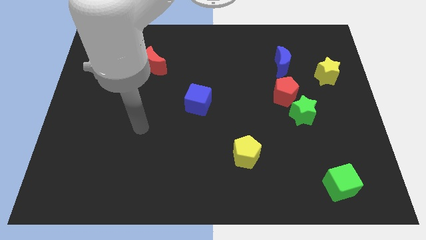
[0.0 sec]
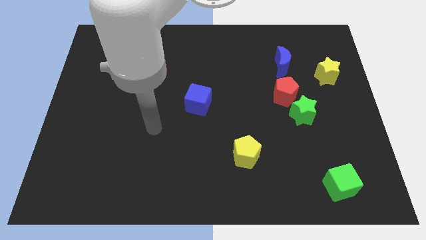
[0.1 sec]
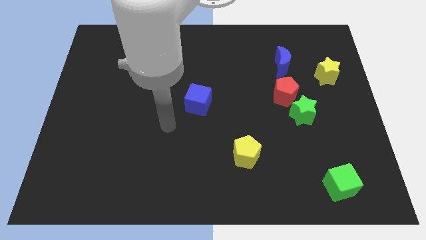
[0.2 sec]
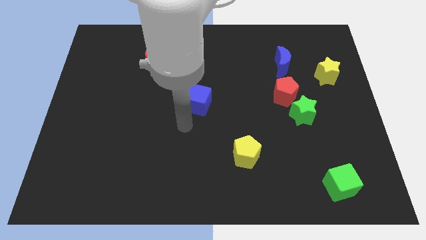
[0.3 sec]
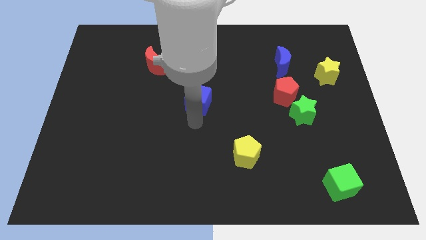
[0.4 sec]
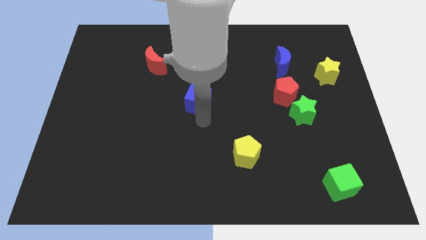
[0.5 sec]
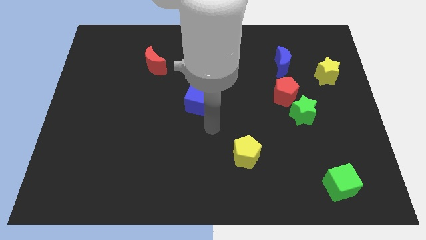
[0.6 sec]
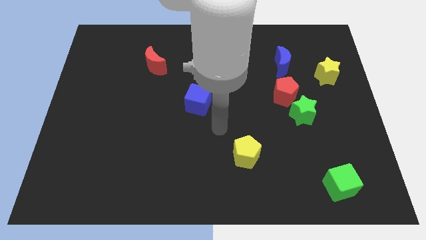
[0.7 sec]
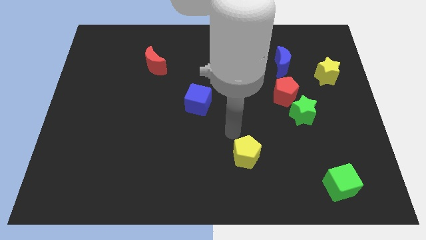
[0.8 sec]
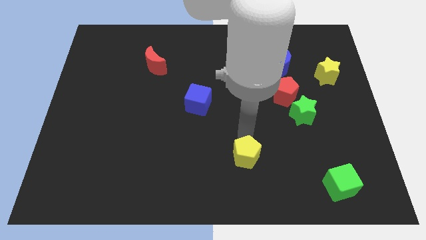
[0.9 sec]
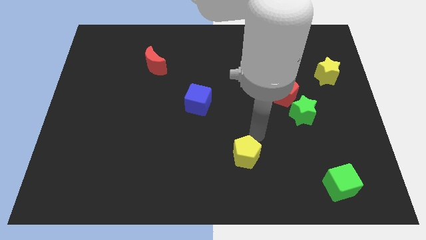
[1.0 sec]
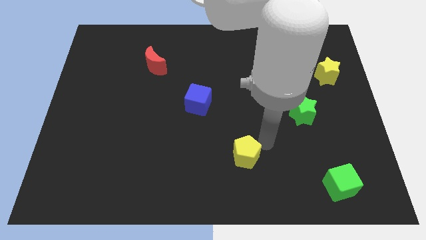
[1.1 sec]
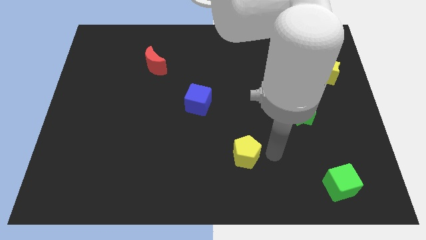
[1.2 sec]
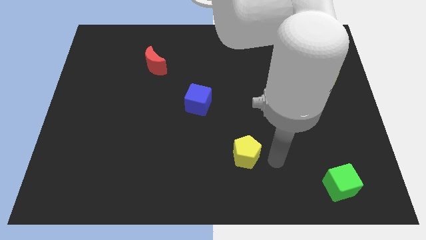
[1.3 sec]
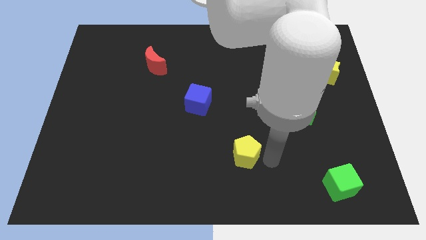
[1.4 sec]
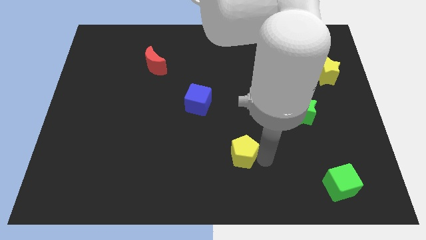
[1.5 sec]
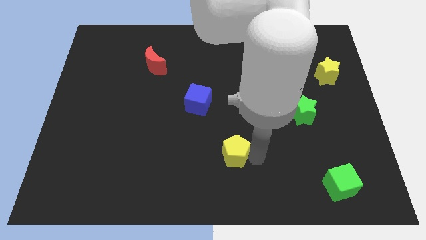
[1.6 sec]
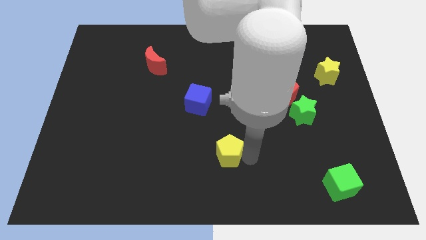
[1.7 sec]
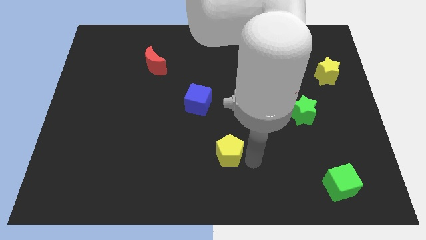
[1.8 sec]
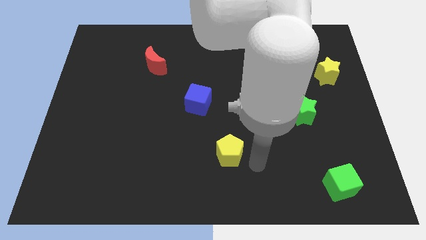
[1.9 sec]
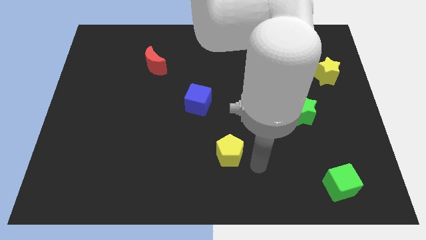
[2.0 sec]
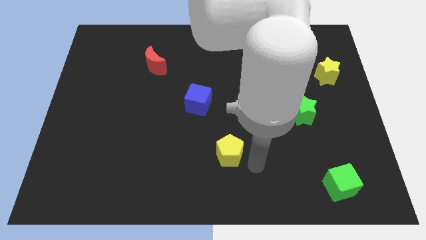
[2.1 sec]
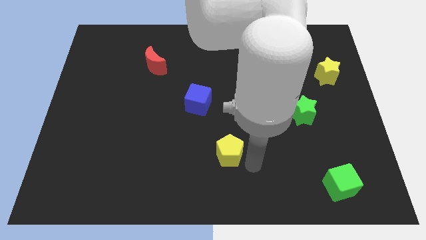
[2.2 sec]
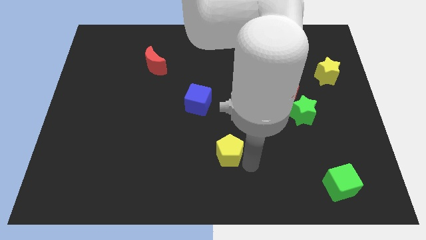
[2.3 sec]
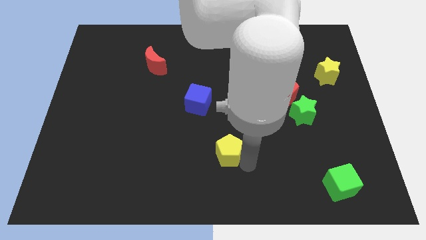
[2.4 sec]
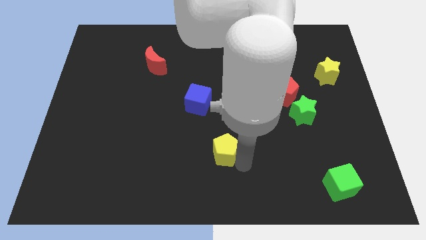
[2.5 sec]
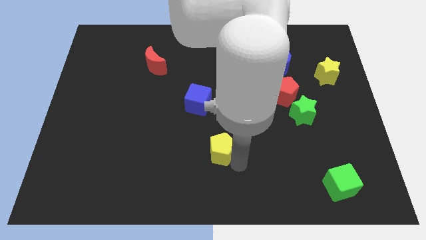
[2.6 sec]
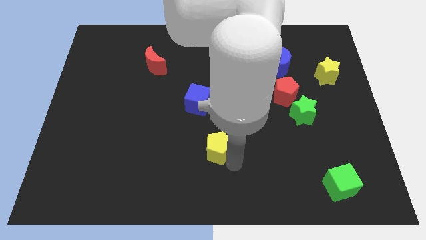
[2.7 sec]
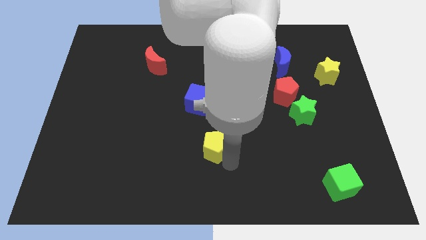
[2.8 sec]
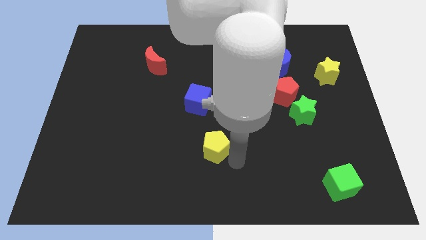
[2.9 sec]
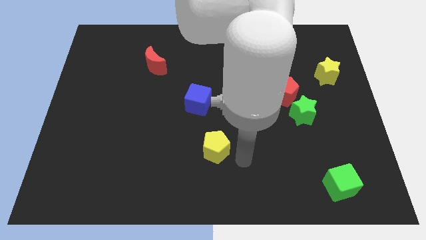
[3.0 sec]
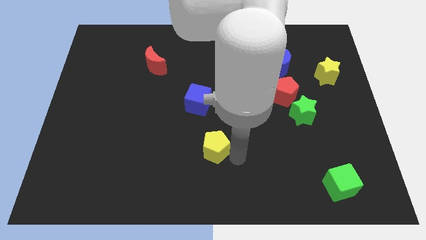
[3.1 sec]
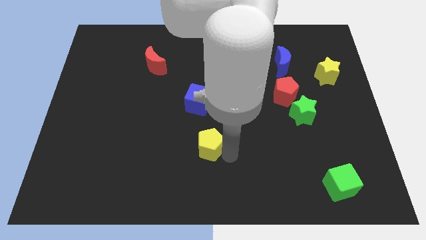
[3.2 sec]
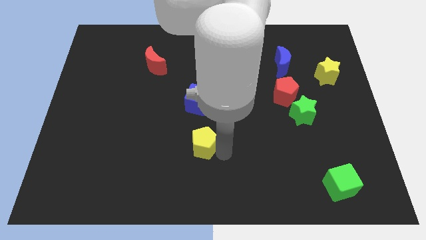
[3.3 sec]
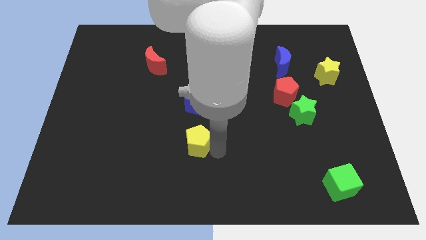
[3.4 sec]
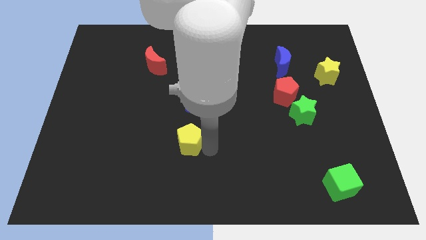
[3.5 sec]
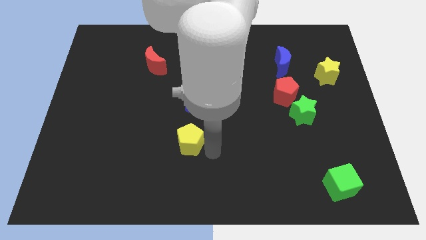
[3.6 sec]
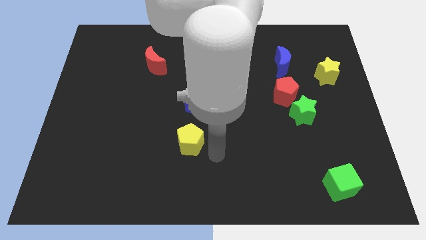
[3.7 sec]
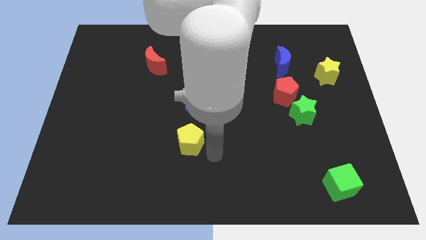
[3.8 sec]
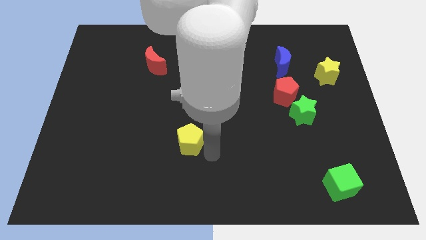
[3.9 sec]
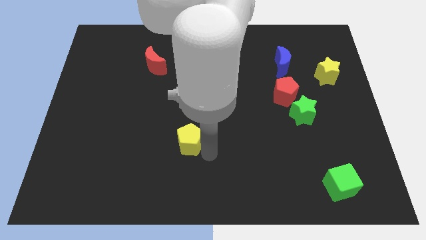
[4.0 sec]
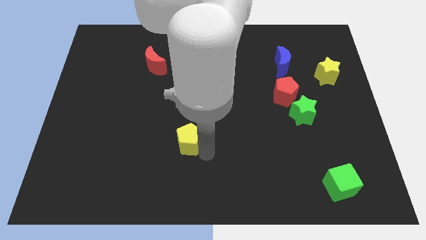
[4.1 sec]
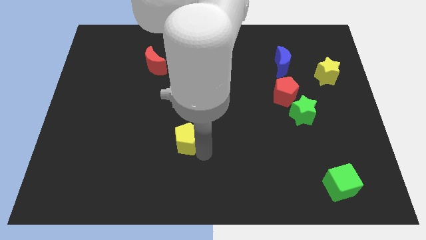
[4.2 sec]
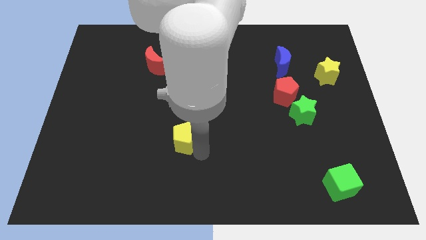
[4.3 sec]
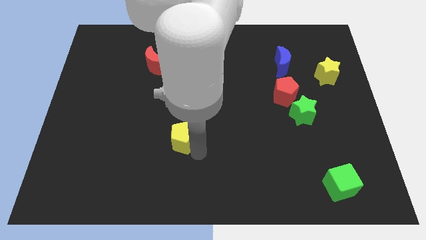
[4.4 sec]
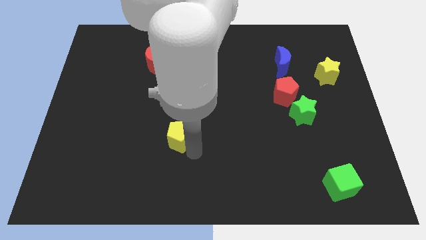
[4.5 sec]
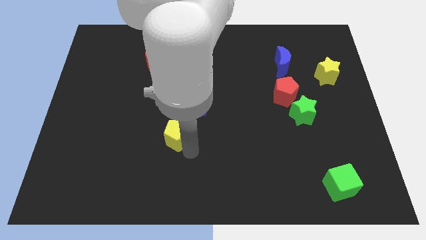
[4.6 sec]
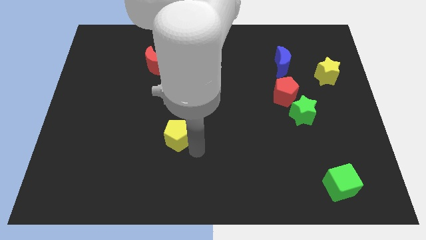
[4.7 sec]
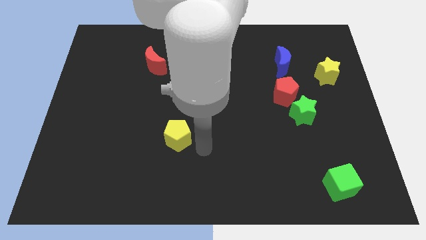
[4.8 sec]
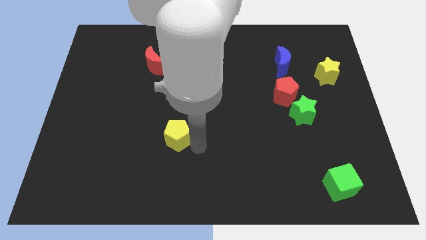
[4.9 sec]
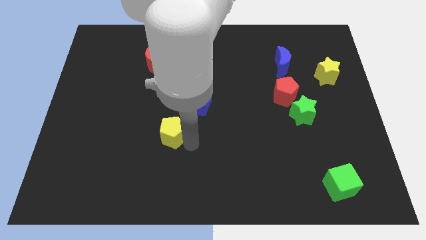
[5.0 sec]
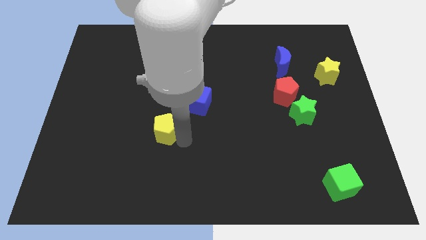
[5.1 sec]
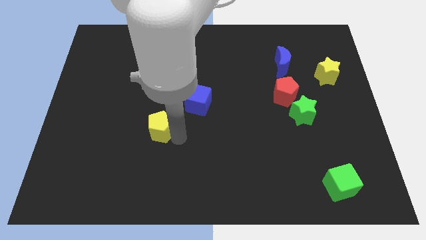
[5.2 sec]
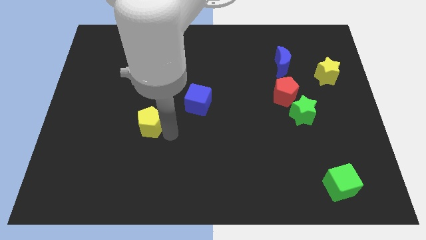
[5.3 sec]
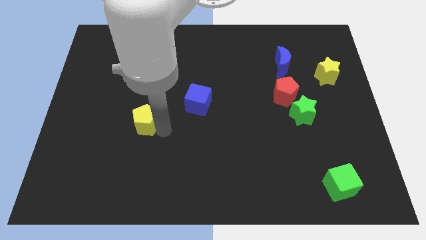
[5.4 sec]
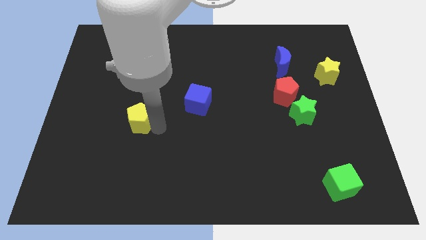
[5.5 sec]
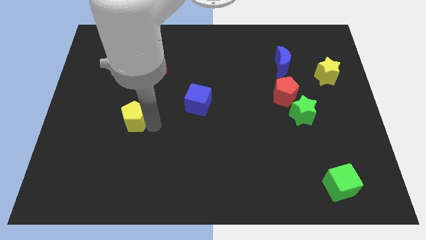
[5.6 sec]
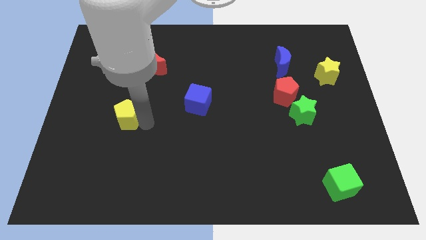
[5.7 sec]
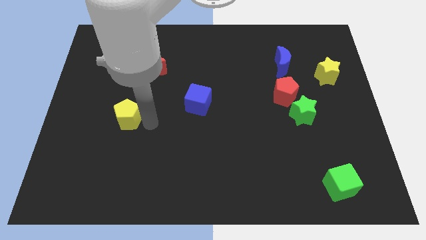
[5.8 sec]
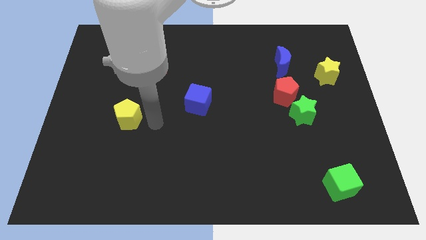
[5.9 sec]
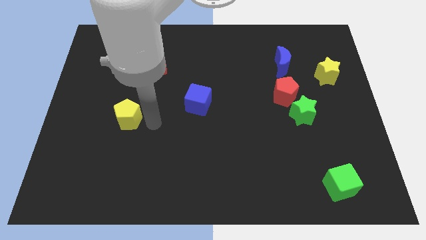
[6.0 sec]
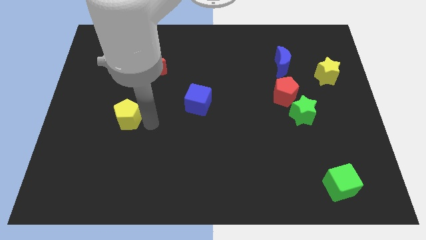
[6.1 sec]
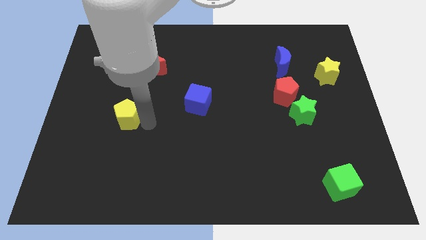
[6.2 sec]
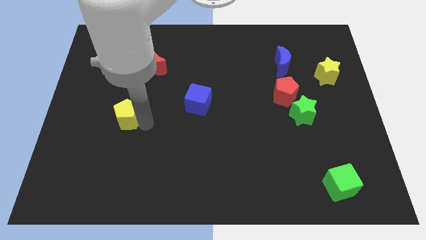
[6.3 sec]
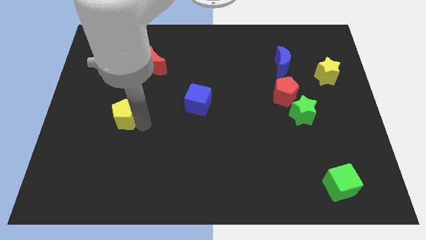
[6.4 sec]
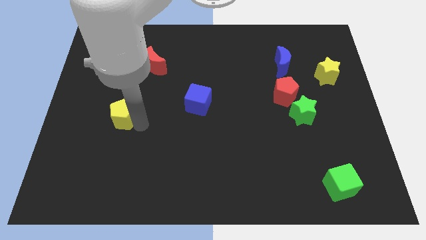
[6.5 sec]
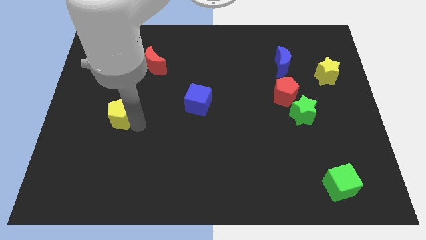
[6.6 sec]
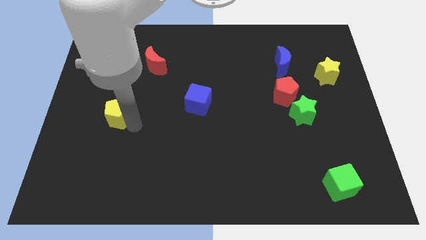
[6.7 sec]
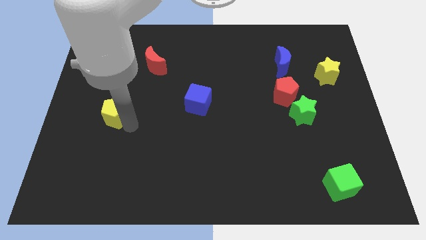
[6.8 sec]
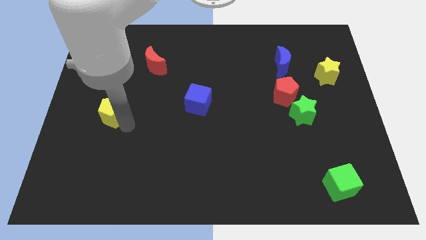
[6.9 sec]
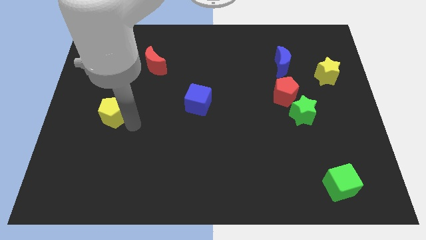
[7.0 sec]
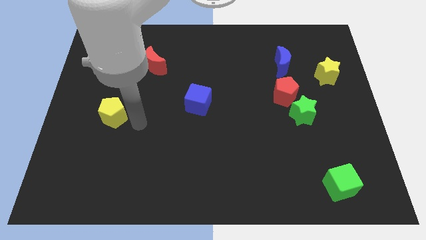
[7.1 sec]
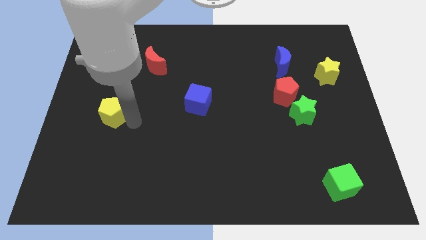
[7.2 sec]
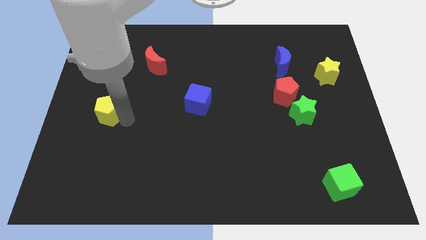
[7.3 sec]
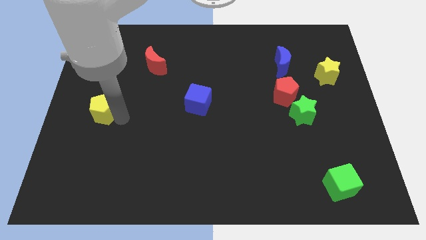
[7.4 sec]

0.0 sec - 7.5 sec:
move the yellow pentagon to the center left
